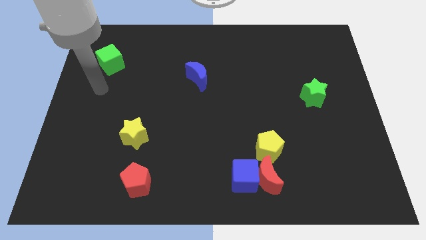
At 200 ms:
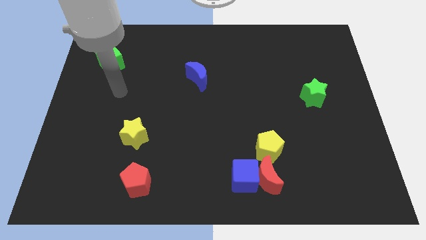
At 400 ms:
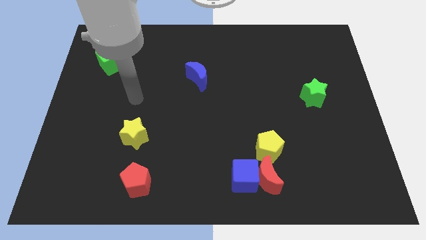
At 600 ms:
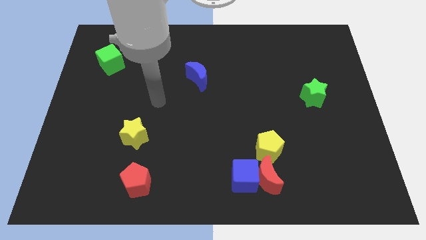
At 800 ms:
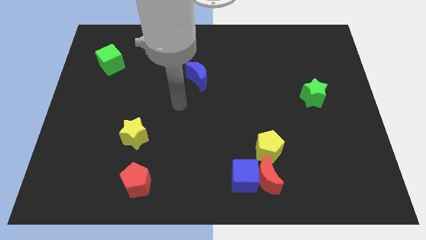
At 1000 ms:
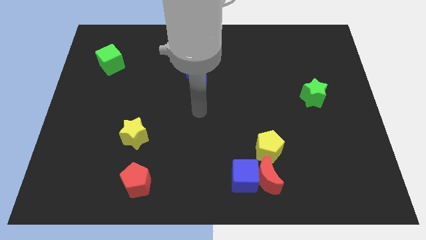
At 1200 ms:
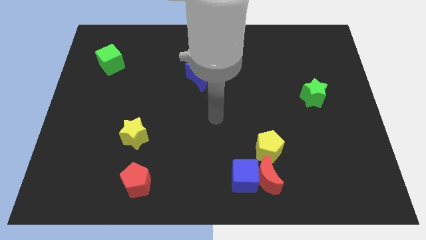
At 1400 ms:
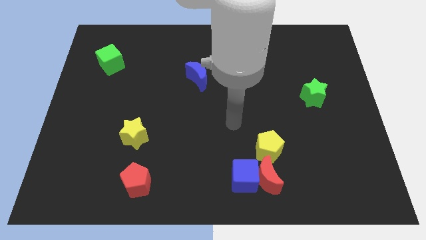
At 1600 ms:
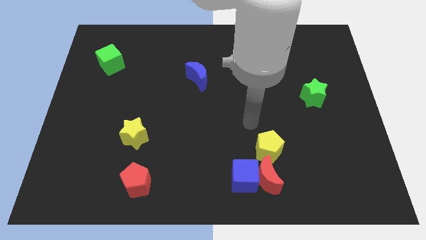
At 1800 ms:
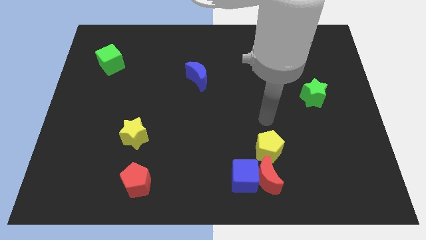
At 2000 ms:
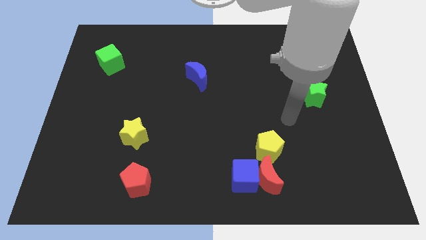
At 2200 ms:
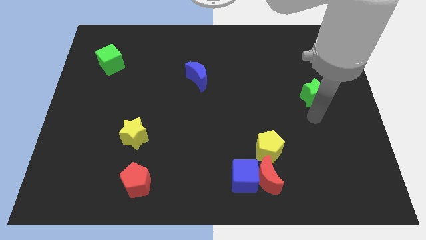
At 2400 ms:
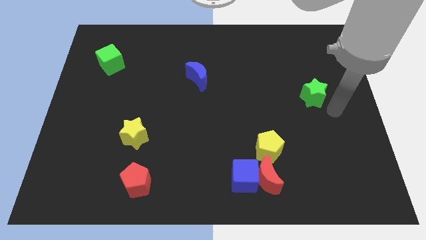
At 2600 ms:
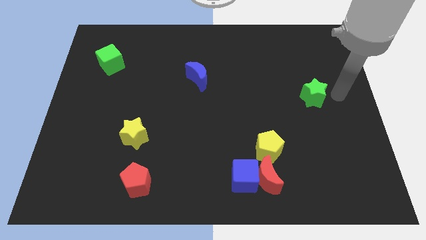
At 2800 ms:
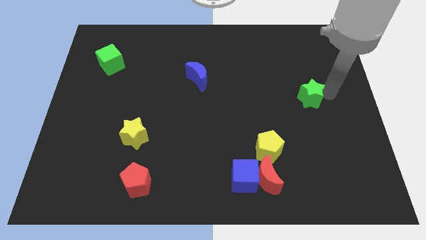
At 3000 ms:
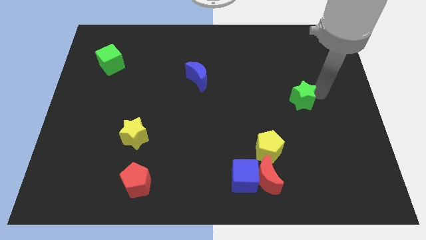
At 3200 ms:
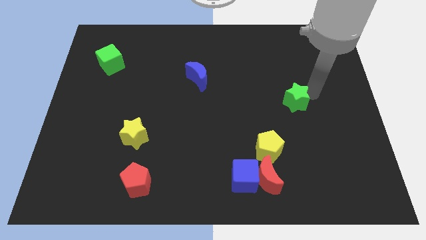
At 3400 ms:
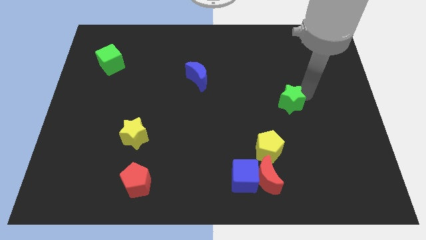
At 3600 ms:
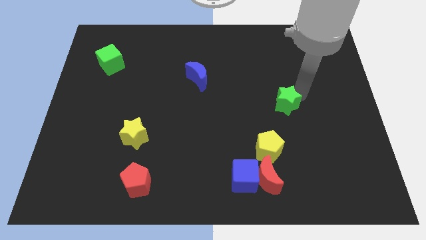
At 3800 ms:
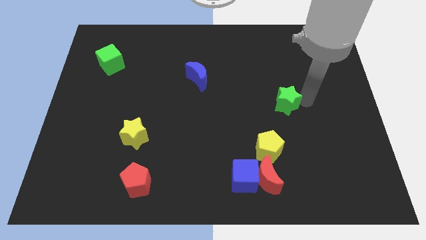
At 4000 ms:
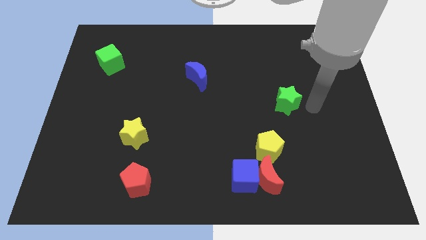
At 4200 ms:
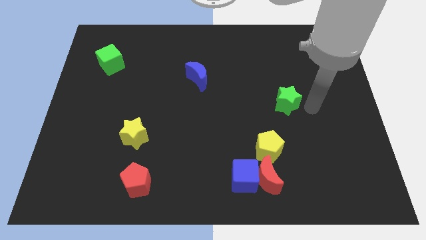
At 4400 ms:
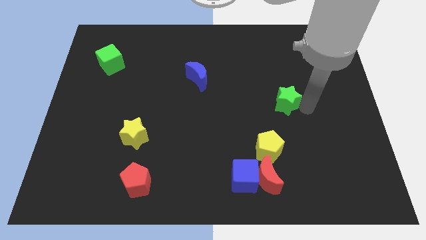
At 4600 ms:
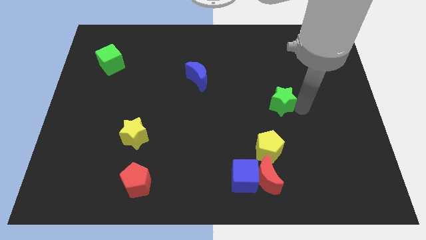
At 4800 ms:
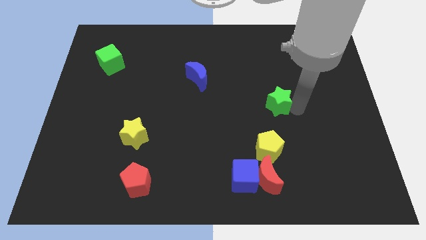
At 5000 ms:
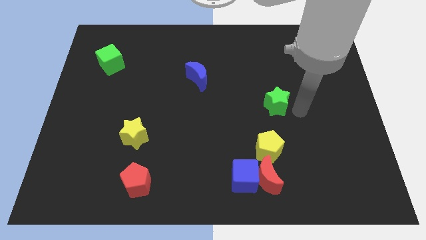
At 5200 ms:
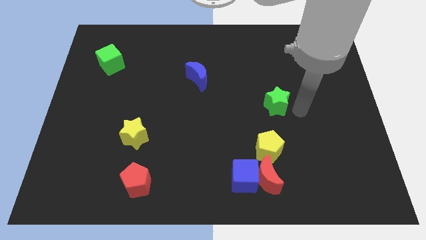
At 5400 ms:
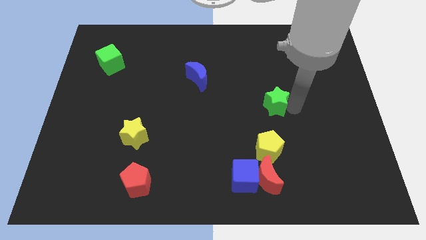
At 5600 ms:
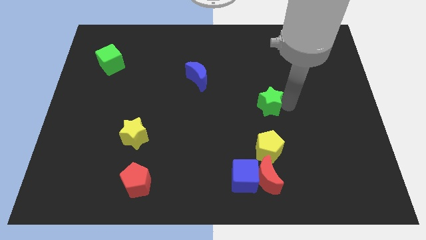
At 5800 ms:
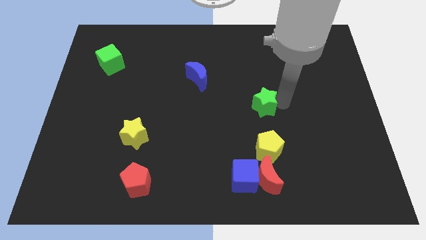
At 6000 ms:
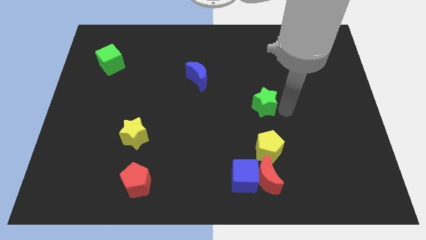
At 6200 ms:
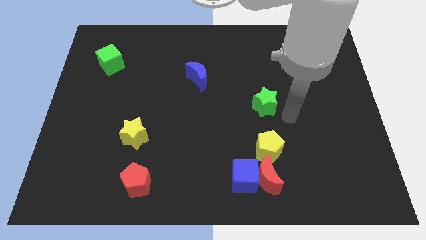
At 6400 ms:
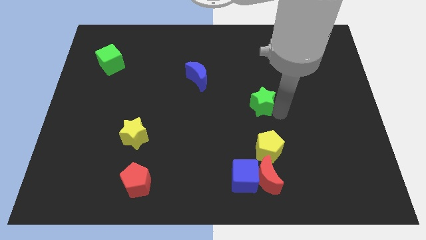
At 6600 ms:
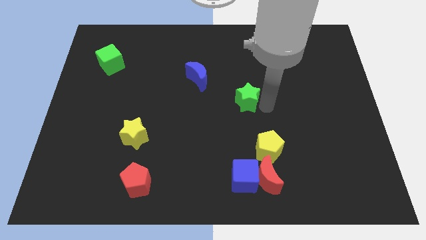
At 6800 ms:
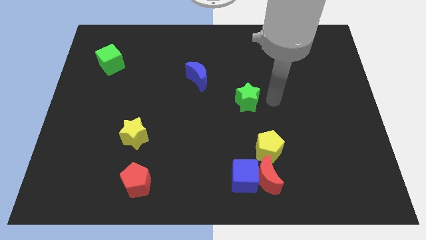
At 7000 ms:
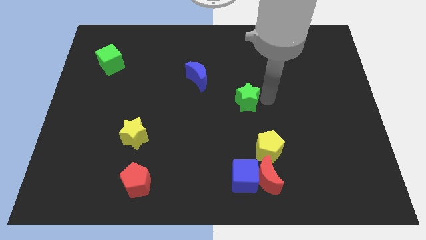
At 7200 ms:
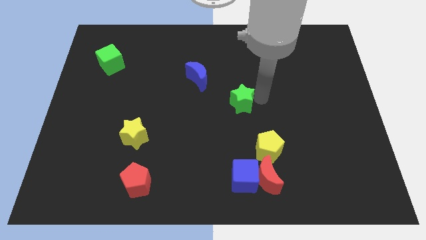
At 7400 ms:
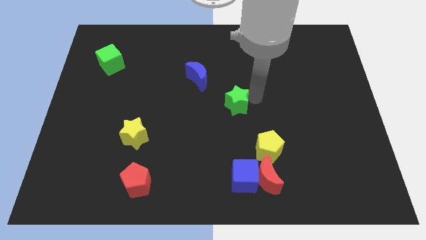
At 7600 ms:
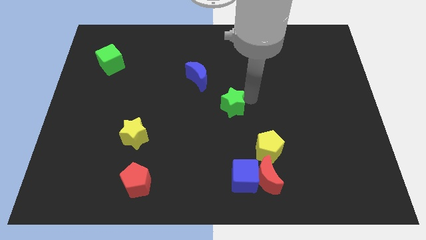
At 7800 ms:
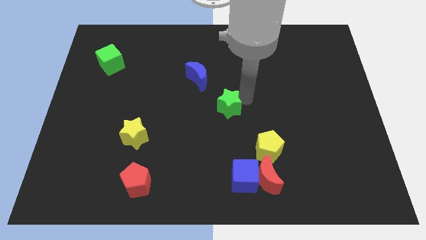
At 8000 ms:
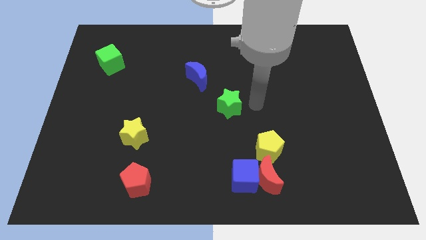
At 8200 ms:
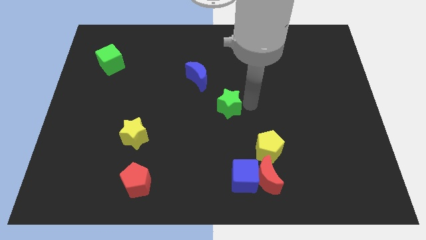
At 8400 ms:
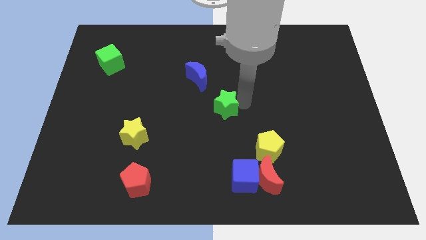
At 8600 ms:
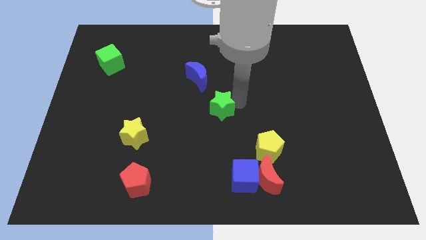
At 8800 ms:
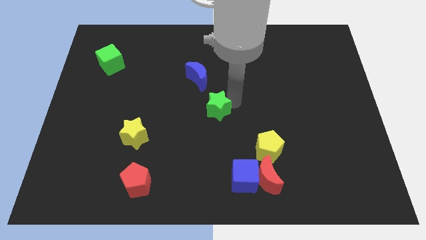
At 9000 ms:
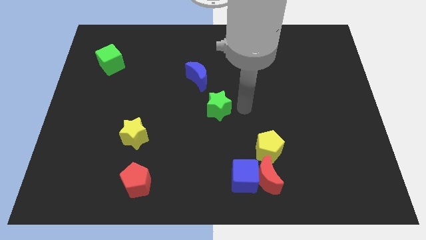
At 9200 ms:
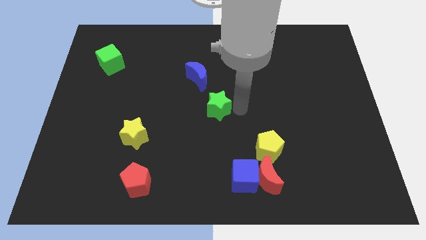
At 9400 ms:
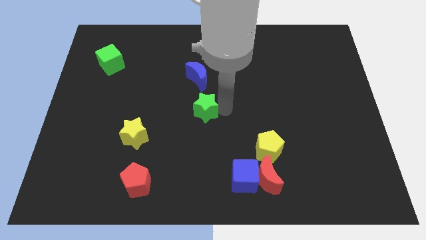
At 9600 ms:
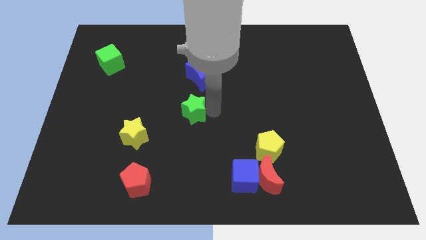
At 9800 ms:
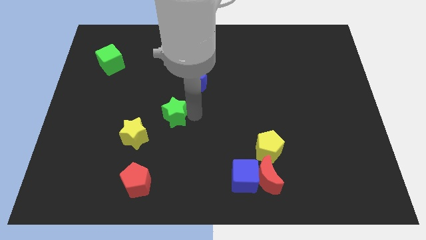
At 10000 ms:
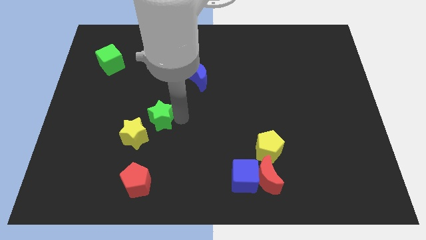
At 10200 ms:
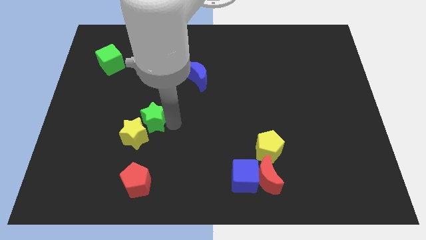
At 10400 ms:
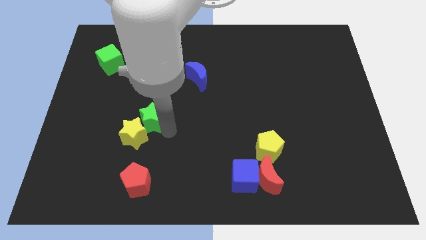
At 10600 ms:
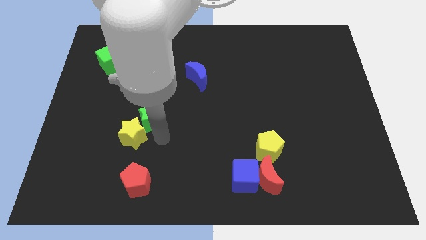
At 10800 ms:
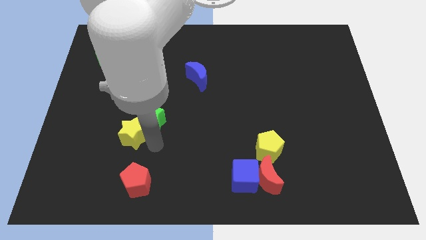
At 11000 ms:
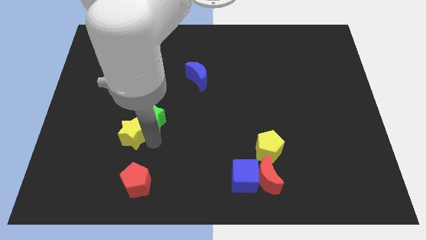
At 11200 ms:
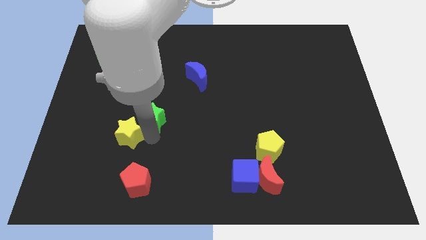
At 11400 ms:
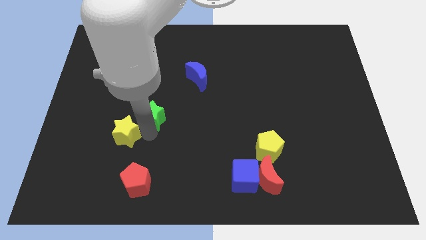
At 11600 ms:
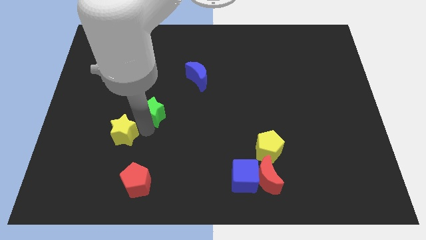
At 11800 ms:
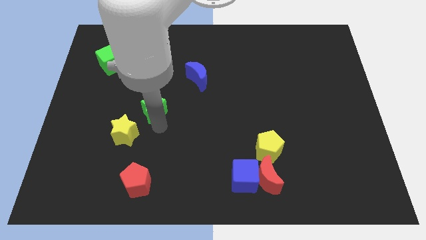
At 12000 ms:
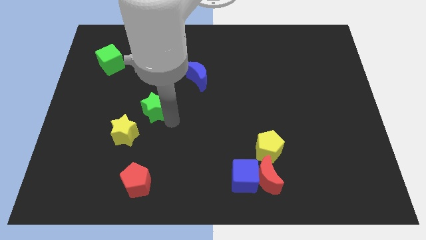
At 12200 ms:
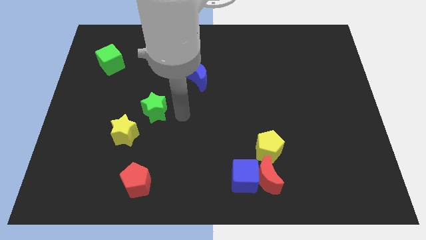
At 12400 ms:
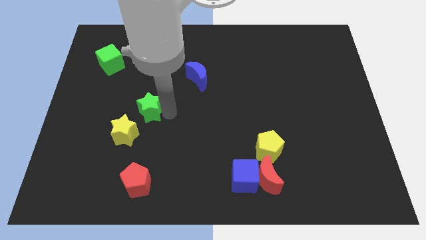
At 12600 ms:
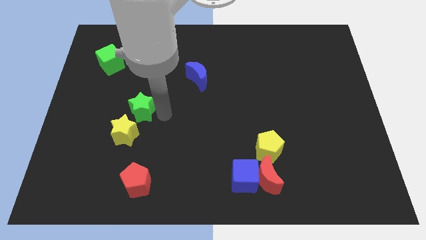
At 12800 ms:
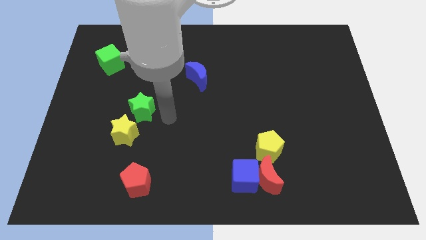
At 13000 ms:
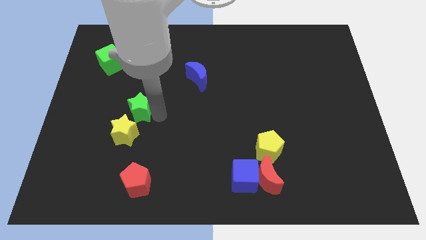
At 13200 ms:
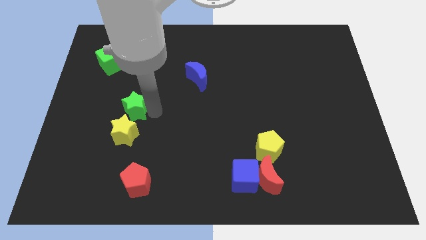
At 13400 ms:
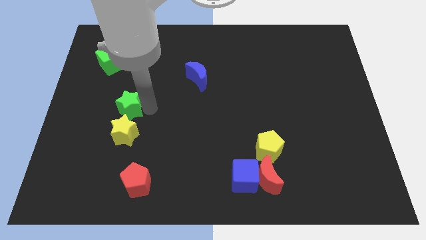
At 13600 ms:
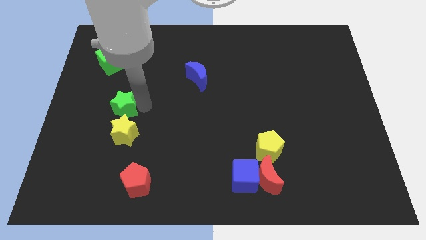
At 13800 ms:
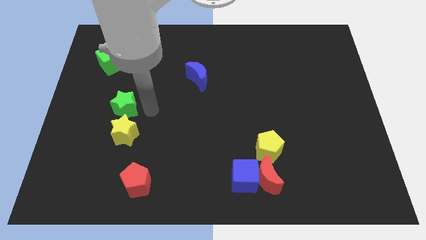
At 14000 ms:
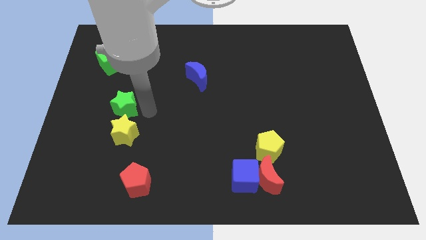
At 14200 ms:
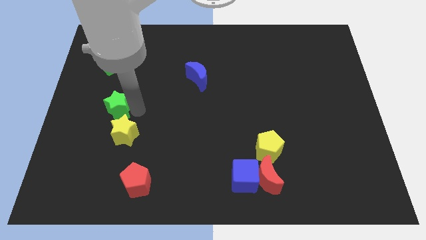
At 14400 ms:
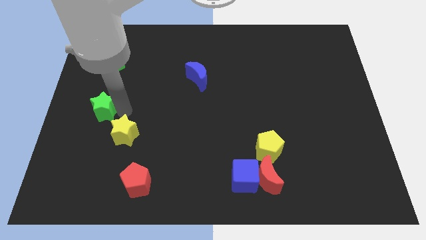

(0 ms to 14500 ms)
put the green star to the left side of the board
